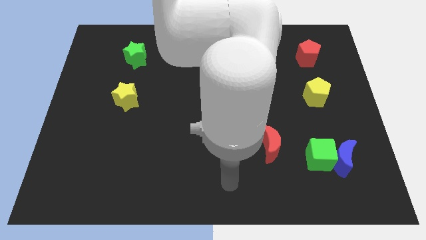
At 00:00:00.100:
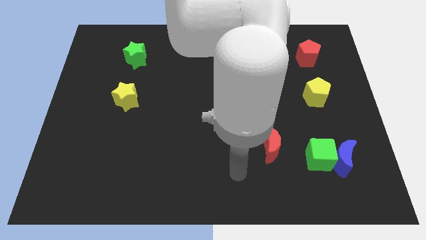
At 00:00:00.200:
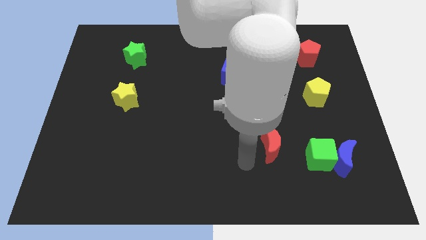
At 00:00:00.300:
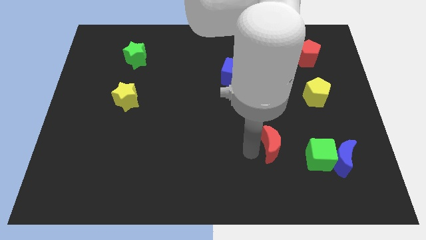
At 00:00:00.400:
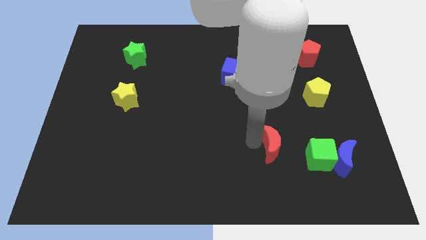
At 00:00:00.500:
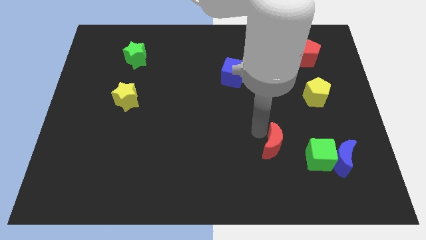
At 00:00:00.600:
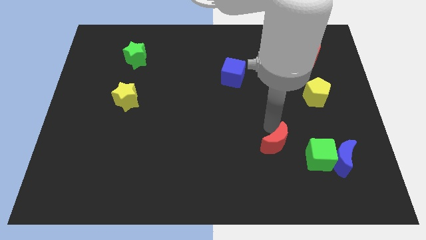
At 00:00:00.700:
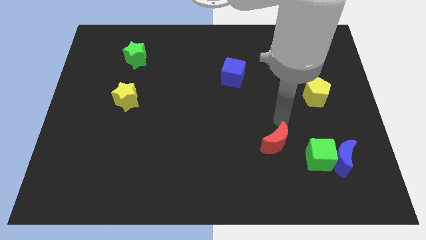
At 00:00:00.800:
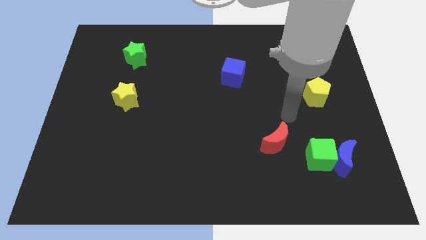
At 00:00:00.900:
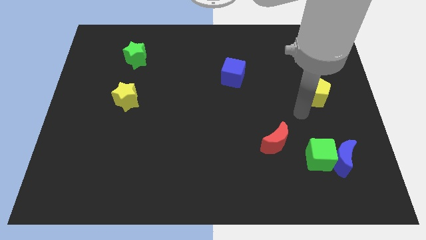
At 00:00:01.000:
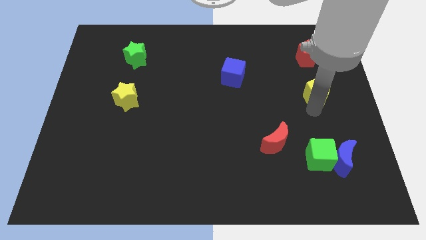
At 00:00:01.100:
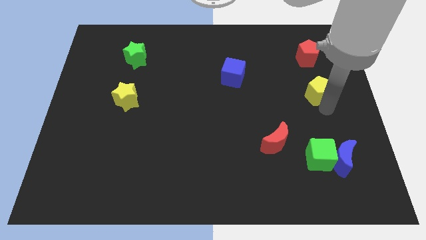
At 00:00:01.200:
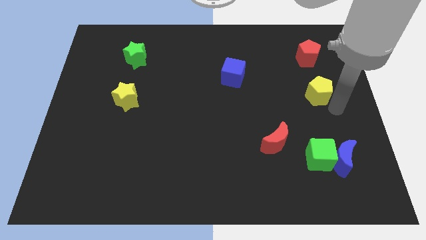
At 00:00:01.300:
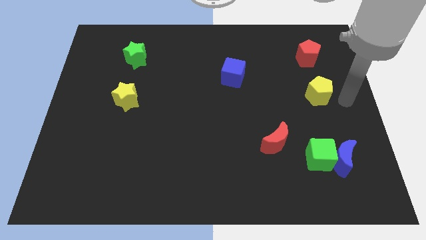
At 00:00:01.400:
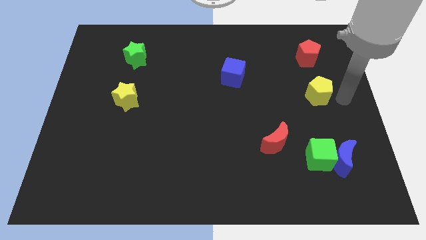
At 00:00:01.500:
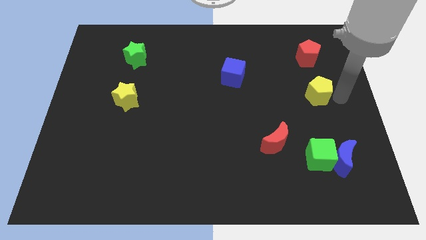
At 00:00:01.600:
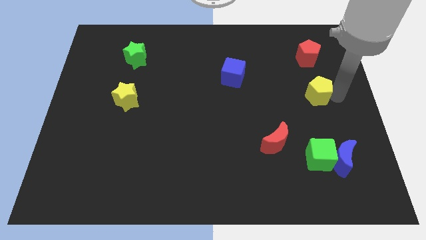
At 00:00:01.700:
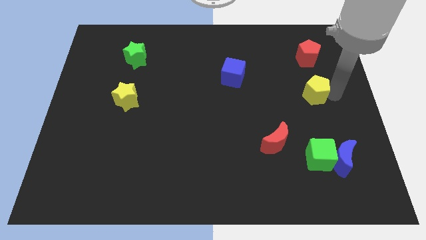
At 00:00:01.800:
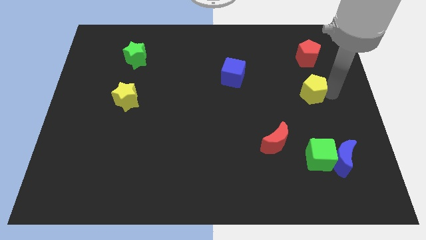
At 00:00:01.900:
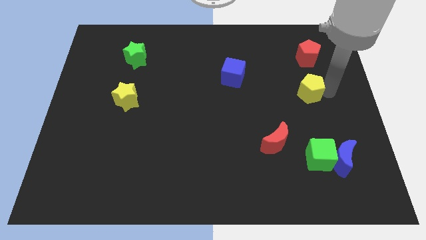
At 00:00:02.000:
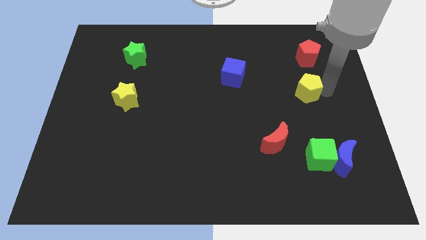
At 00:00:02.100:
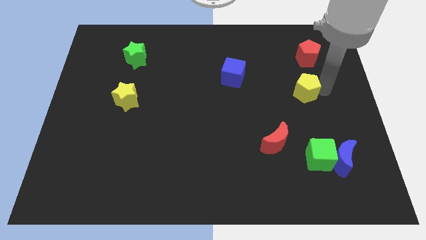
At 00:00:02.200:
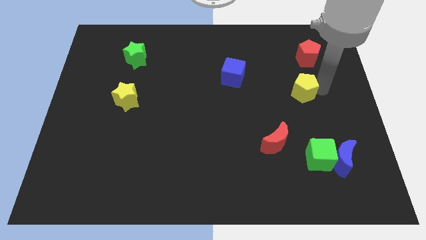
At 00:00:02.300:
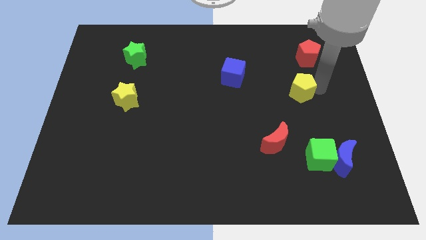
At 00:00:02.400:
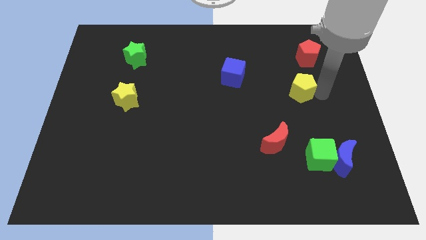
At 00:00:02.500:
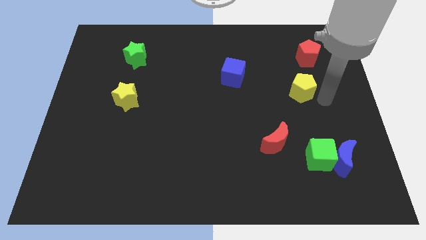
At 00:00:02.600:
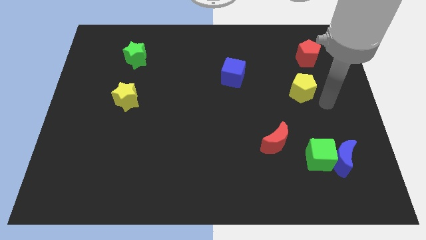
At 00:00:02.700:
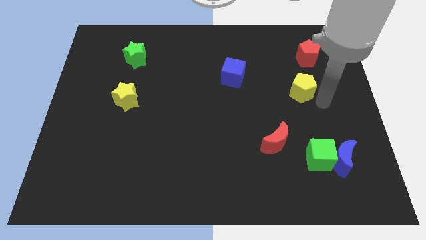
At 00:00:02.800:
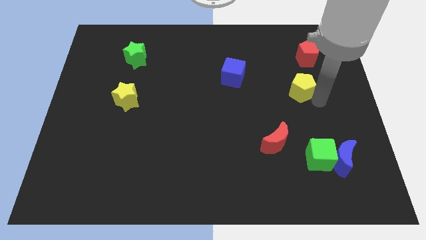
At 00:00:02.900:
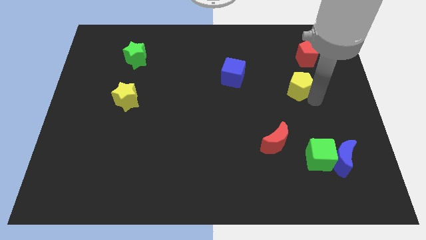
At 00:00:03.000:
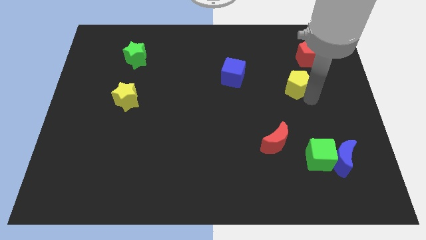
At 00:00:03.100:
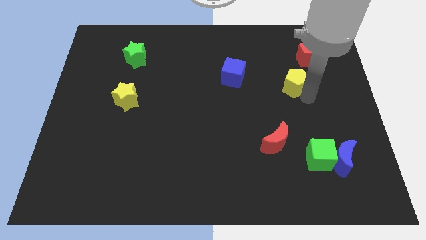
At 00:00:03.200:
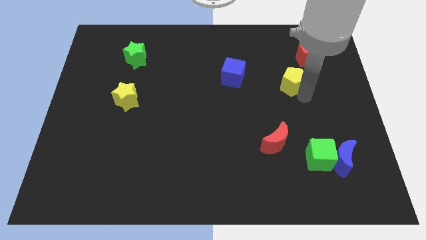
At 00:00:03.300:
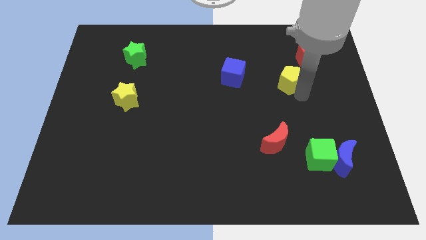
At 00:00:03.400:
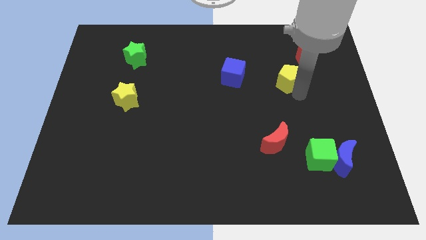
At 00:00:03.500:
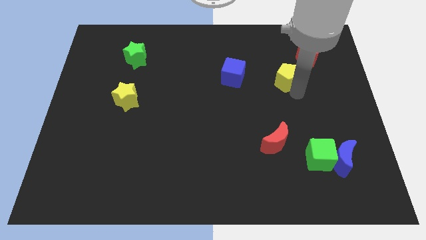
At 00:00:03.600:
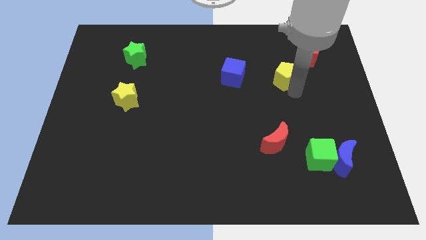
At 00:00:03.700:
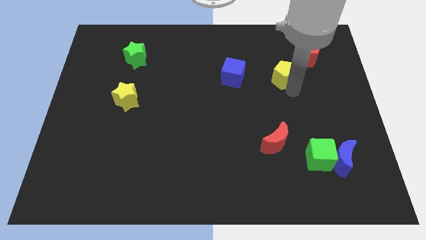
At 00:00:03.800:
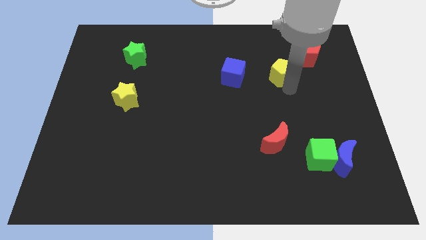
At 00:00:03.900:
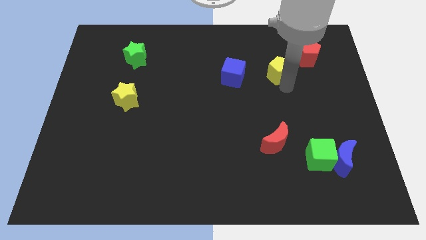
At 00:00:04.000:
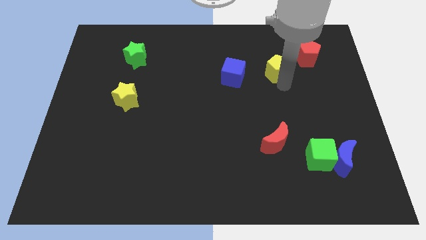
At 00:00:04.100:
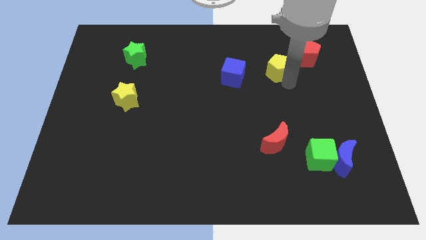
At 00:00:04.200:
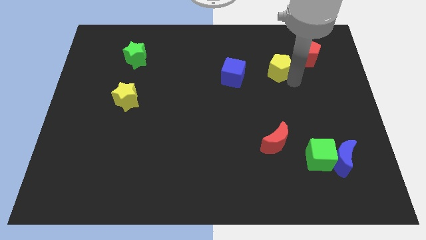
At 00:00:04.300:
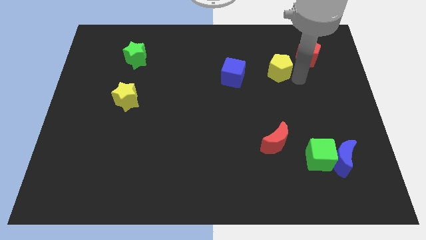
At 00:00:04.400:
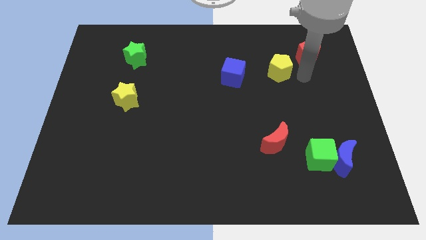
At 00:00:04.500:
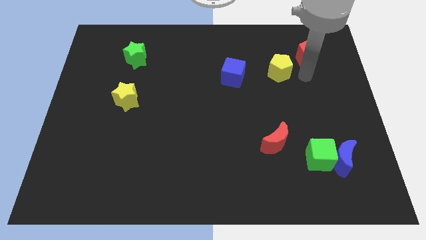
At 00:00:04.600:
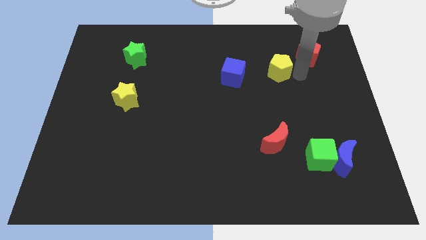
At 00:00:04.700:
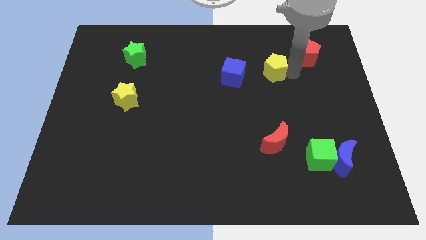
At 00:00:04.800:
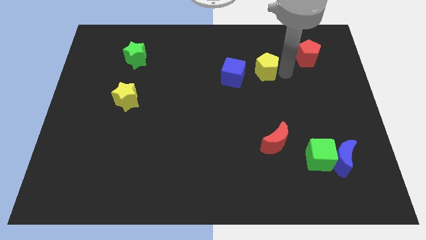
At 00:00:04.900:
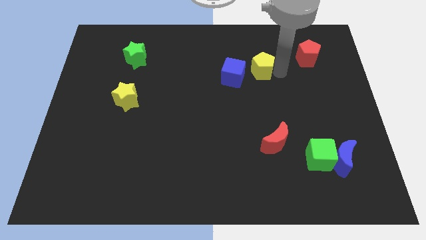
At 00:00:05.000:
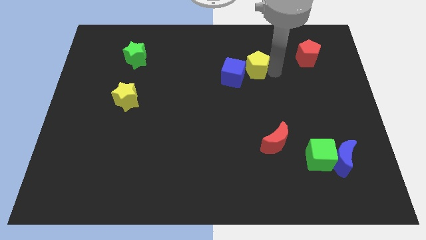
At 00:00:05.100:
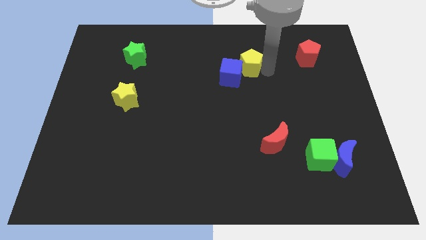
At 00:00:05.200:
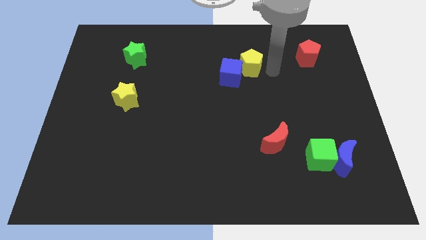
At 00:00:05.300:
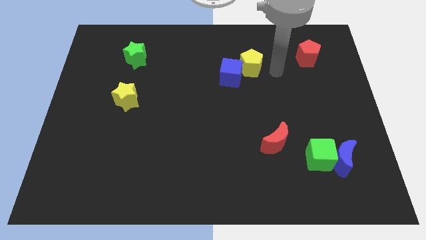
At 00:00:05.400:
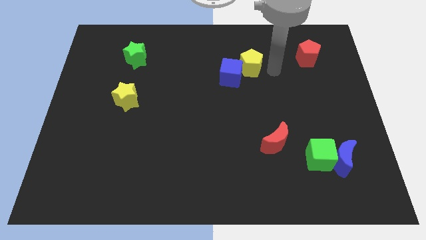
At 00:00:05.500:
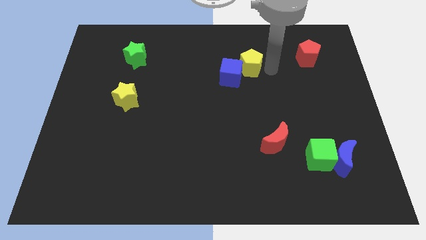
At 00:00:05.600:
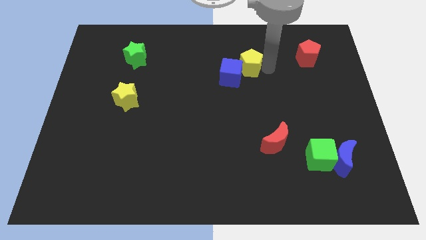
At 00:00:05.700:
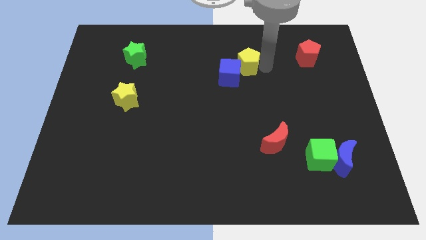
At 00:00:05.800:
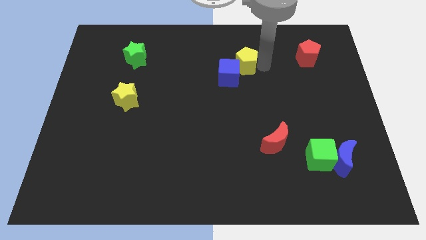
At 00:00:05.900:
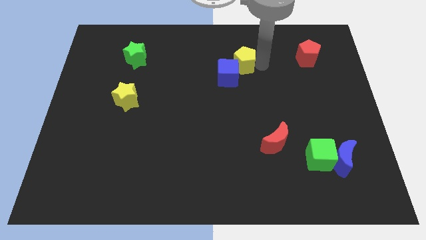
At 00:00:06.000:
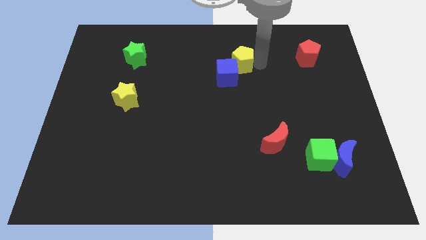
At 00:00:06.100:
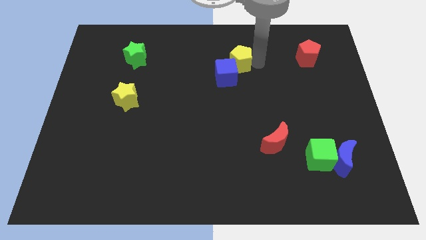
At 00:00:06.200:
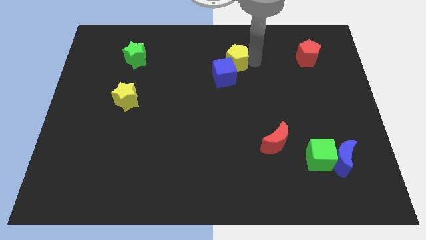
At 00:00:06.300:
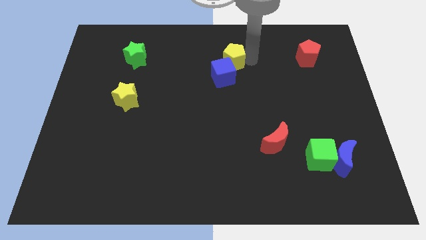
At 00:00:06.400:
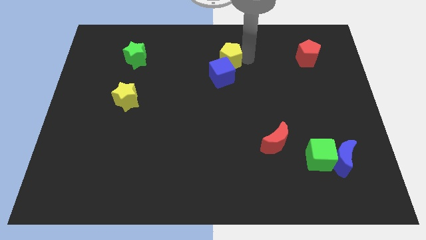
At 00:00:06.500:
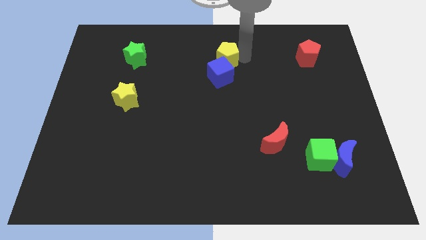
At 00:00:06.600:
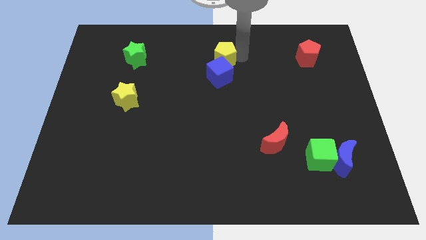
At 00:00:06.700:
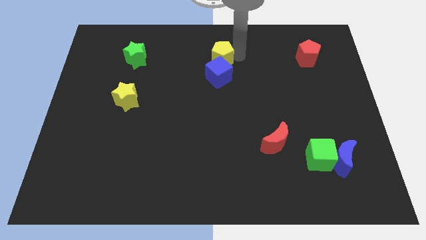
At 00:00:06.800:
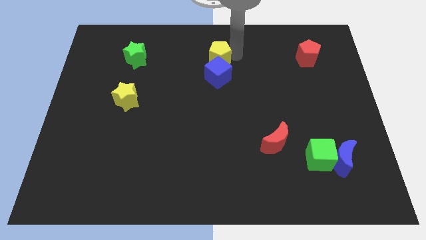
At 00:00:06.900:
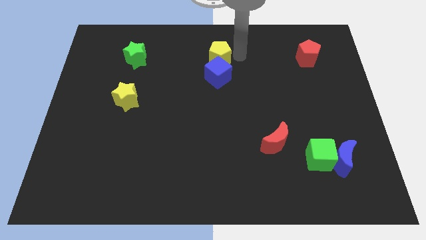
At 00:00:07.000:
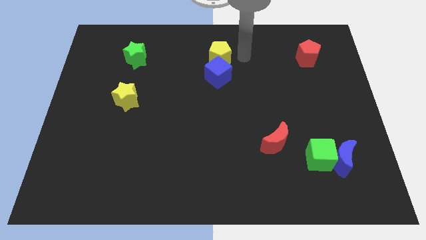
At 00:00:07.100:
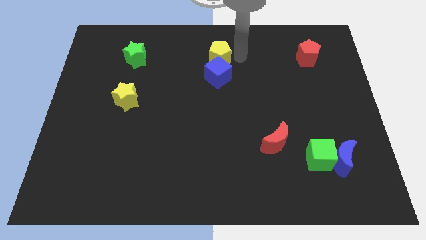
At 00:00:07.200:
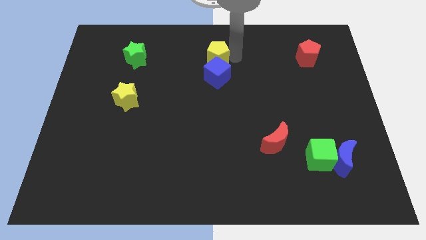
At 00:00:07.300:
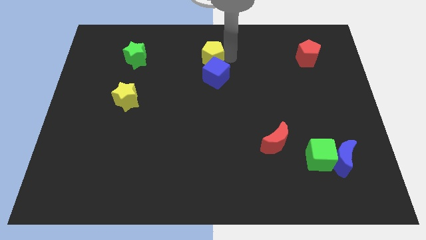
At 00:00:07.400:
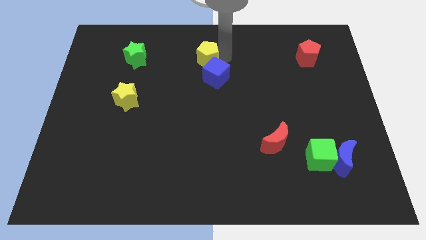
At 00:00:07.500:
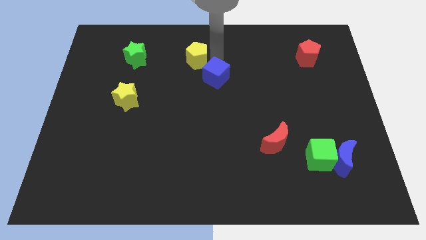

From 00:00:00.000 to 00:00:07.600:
move the yellow pentagon just right of the green star
